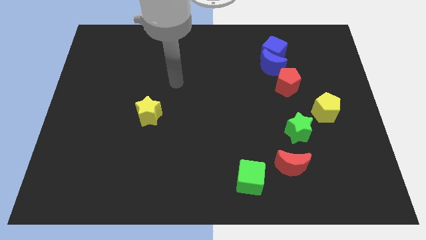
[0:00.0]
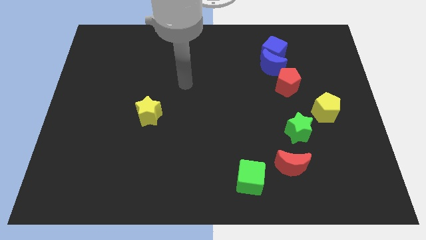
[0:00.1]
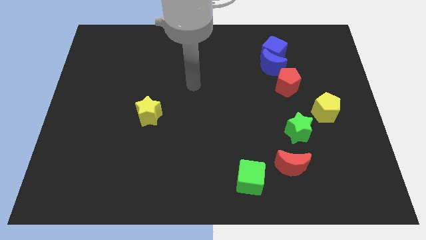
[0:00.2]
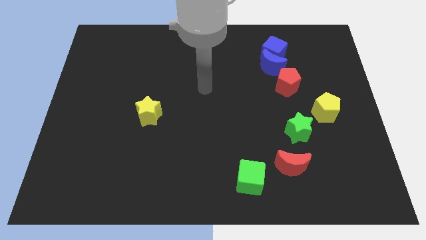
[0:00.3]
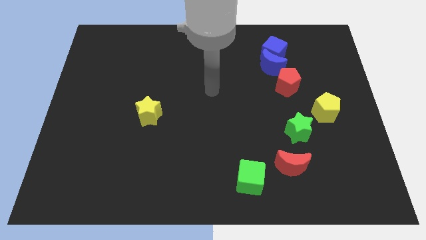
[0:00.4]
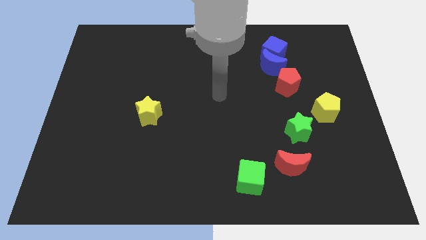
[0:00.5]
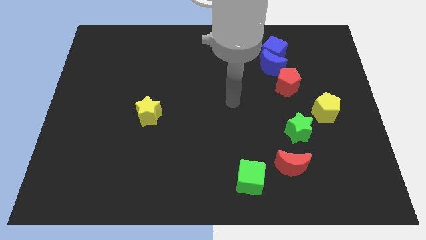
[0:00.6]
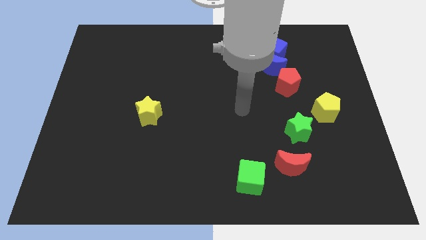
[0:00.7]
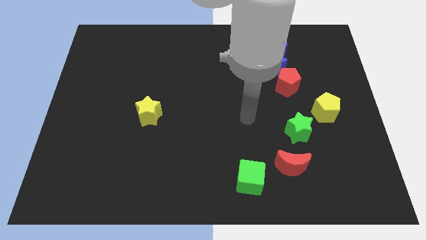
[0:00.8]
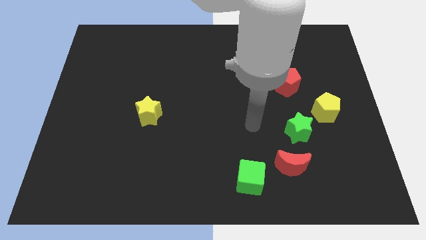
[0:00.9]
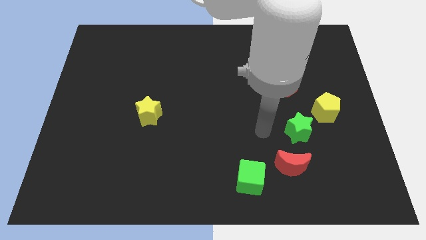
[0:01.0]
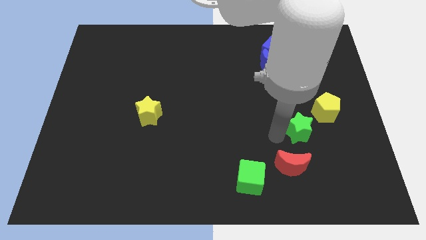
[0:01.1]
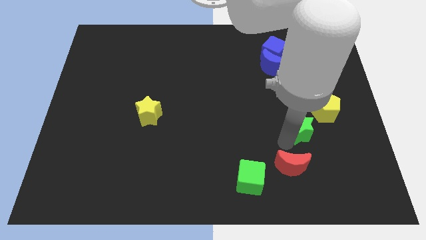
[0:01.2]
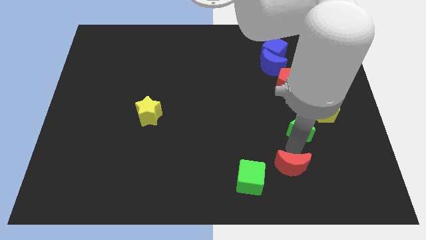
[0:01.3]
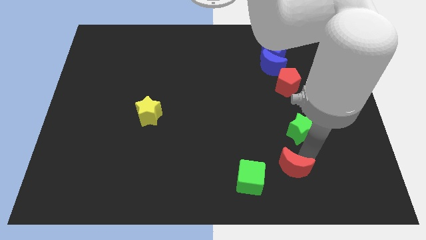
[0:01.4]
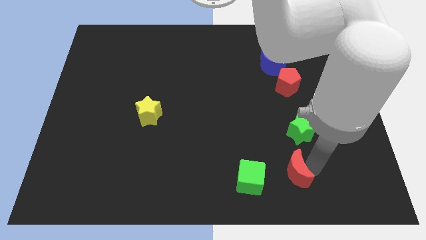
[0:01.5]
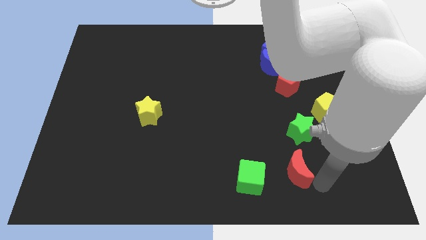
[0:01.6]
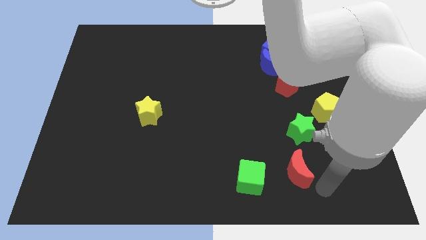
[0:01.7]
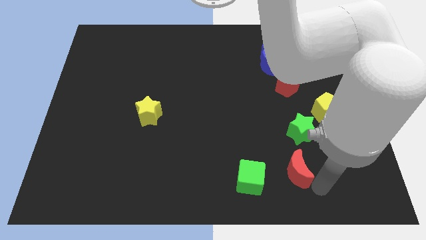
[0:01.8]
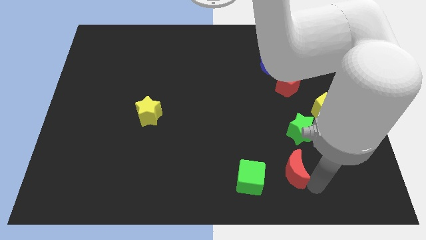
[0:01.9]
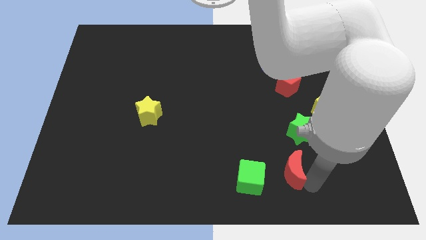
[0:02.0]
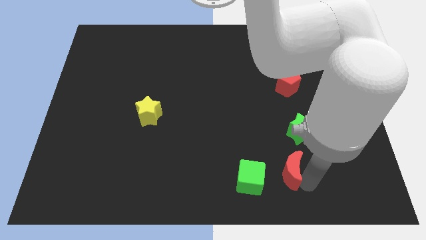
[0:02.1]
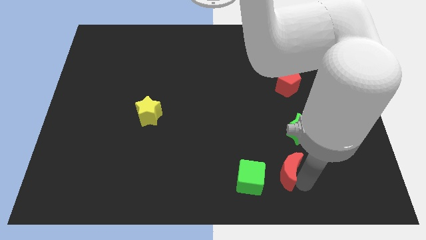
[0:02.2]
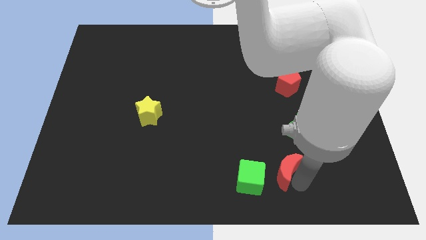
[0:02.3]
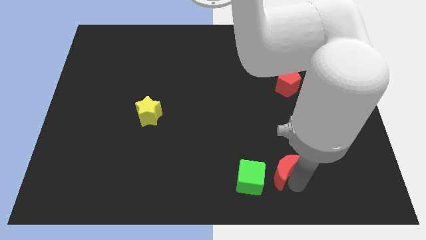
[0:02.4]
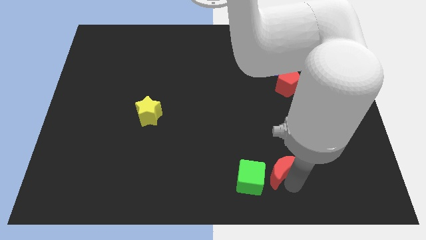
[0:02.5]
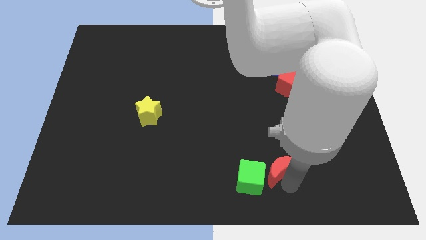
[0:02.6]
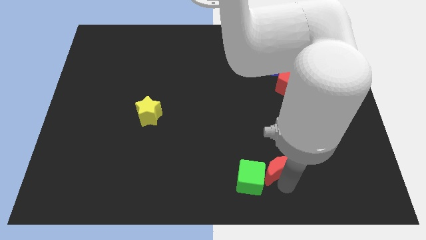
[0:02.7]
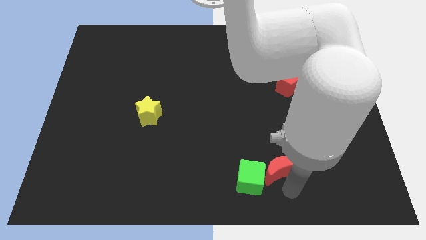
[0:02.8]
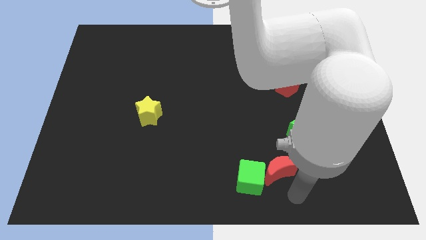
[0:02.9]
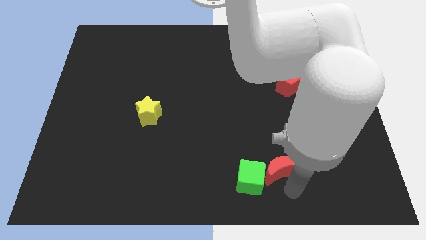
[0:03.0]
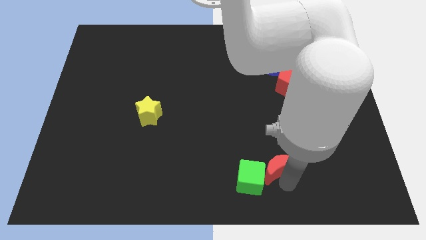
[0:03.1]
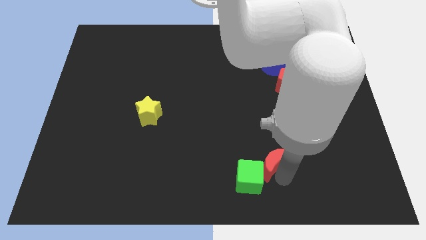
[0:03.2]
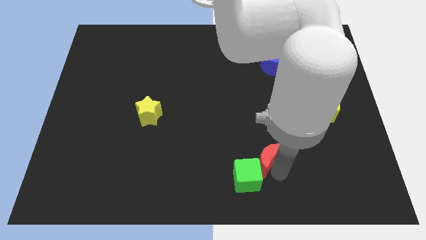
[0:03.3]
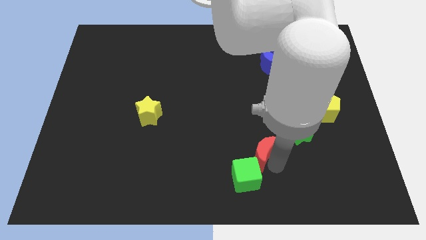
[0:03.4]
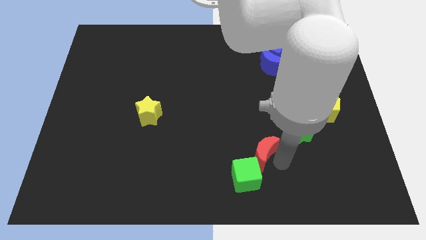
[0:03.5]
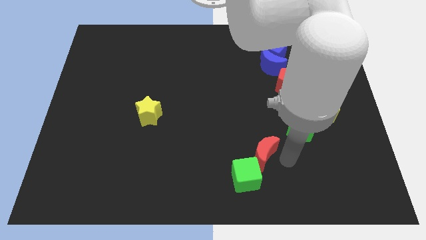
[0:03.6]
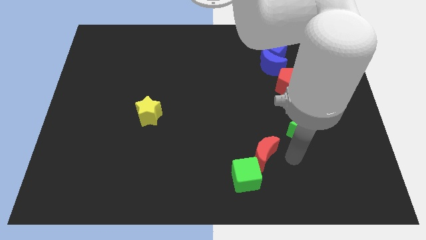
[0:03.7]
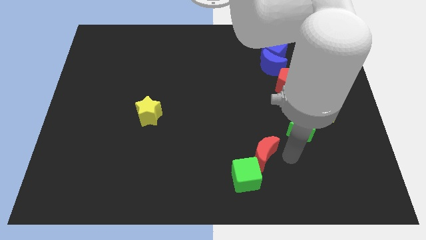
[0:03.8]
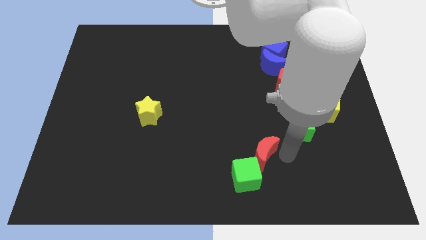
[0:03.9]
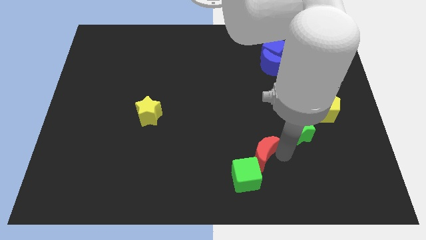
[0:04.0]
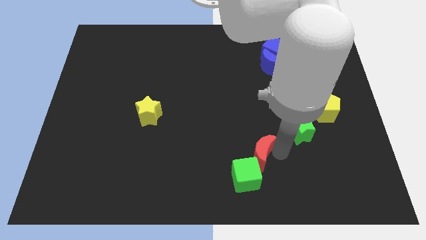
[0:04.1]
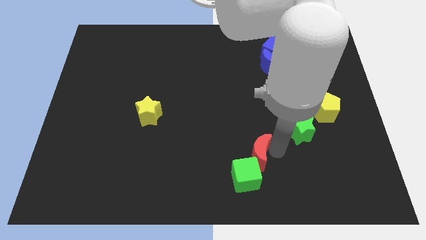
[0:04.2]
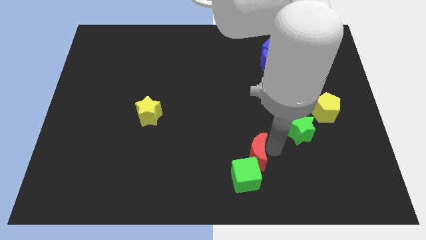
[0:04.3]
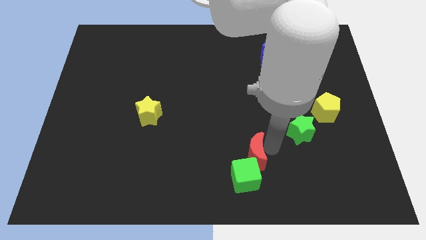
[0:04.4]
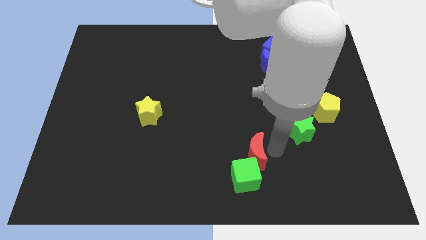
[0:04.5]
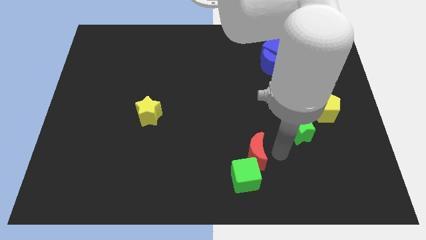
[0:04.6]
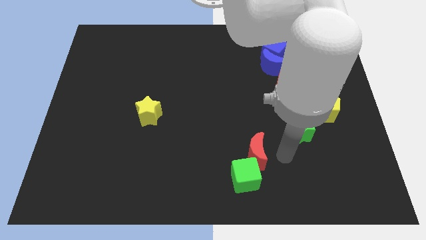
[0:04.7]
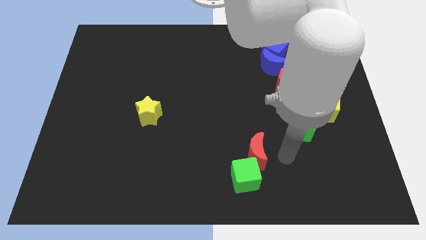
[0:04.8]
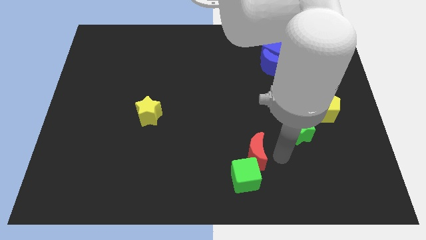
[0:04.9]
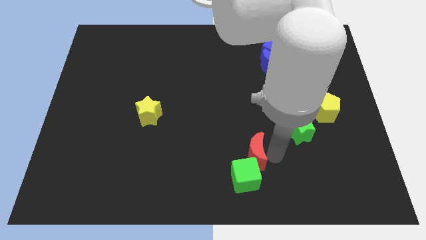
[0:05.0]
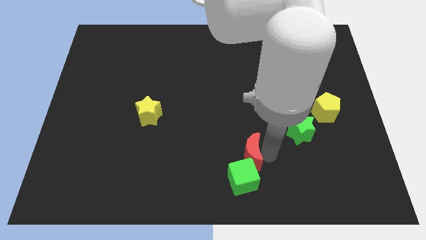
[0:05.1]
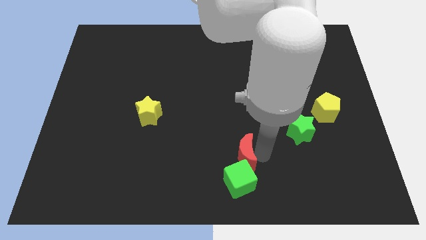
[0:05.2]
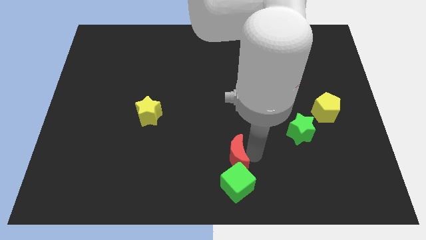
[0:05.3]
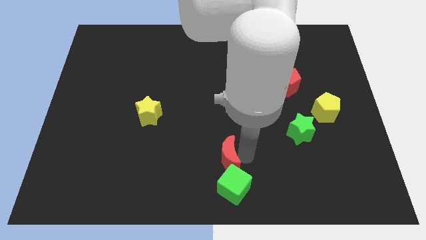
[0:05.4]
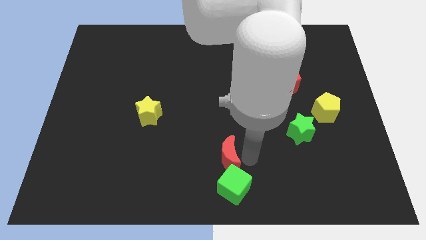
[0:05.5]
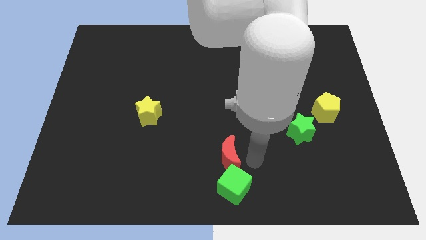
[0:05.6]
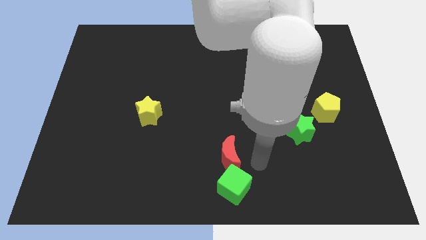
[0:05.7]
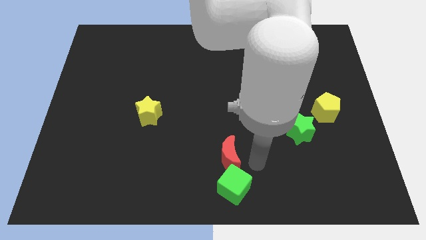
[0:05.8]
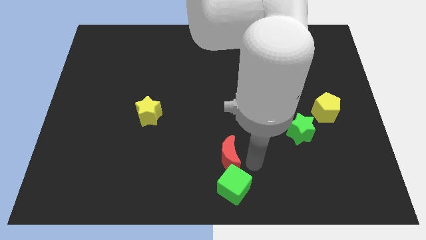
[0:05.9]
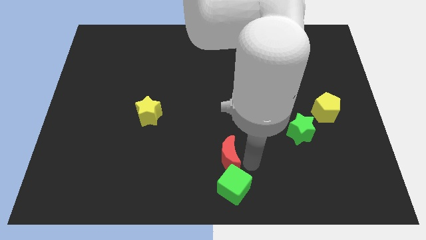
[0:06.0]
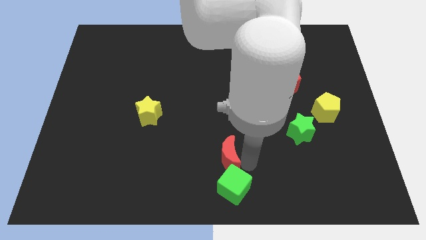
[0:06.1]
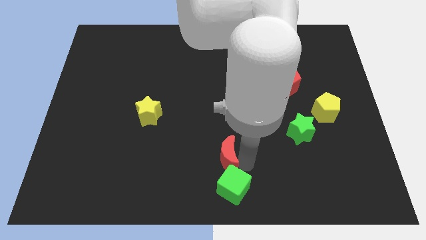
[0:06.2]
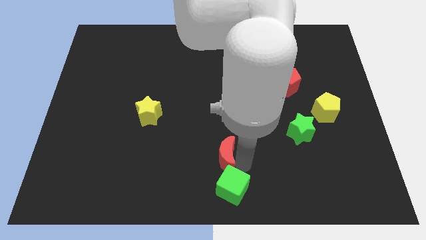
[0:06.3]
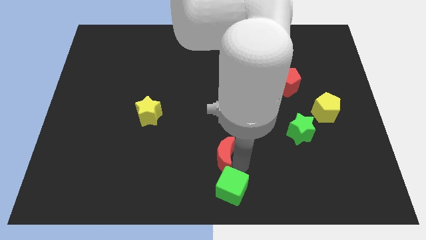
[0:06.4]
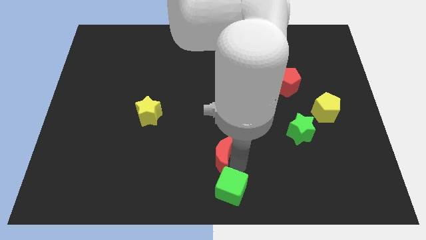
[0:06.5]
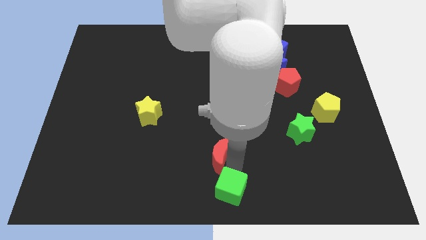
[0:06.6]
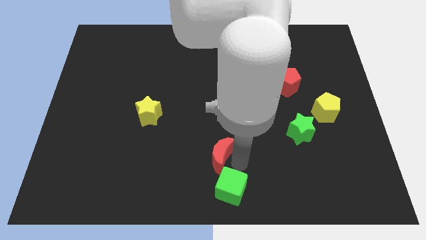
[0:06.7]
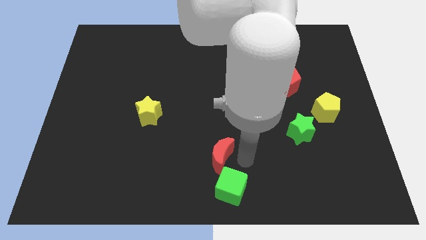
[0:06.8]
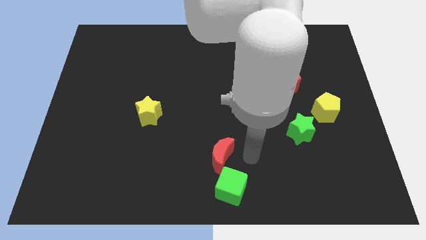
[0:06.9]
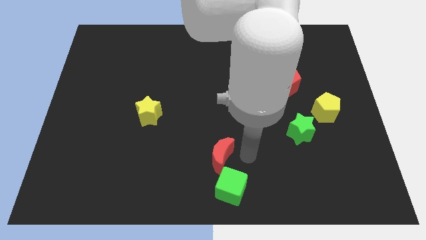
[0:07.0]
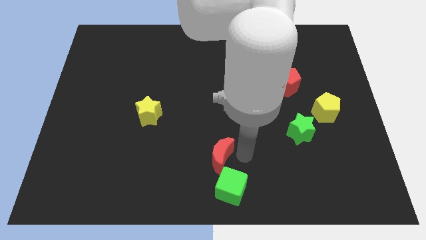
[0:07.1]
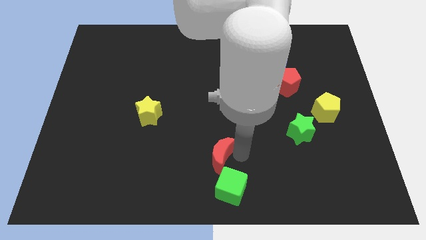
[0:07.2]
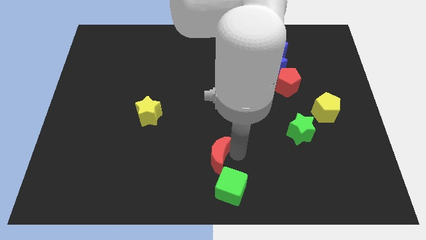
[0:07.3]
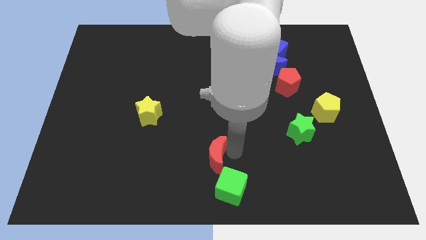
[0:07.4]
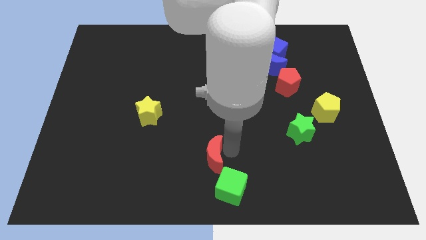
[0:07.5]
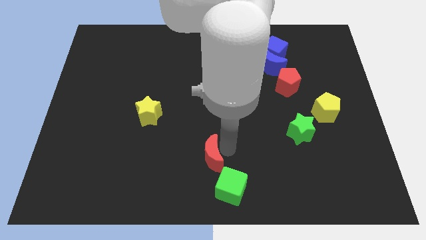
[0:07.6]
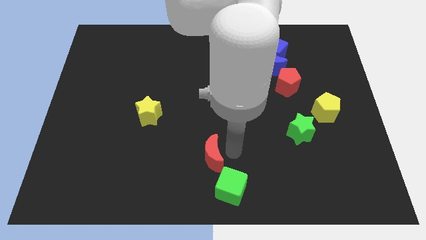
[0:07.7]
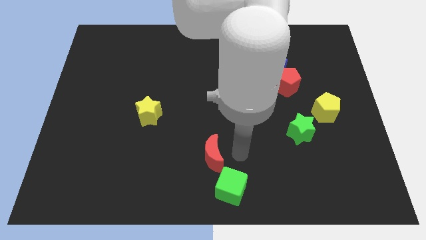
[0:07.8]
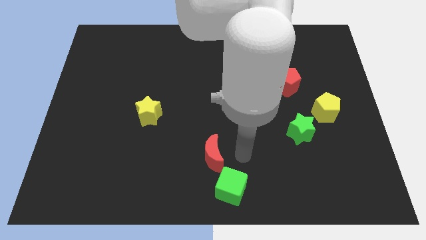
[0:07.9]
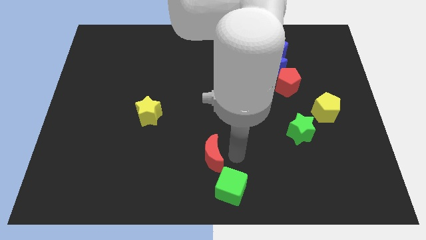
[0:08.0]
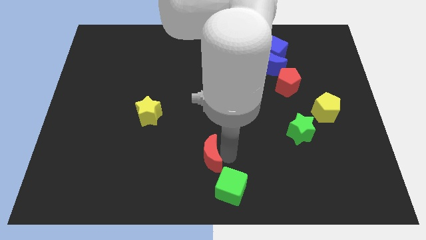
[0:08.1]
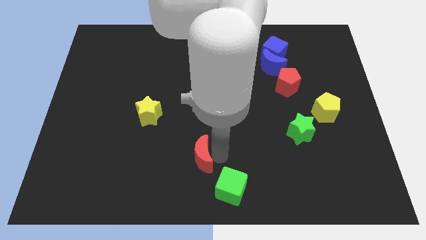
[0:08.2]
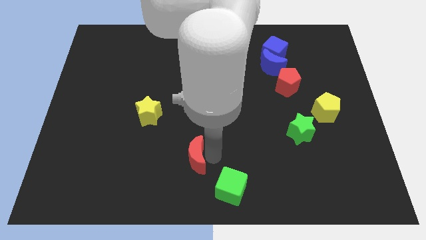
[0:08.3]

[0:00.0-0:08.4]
push the red moon left
